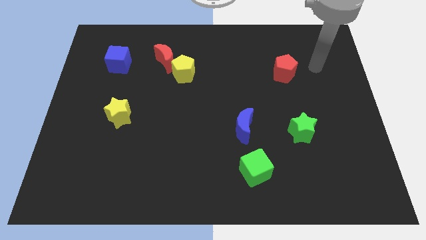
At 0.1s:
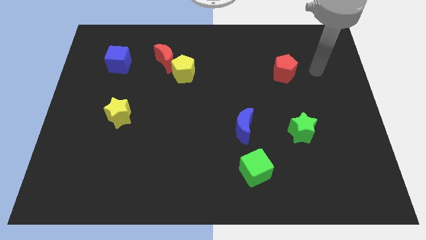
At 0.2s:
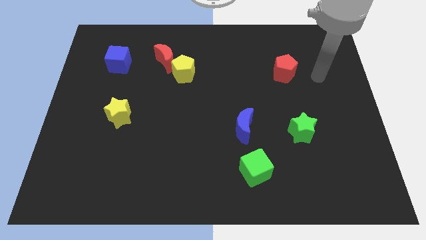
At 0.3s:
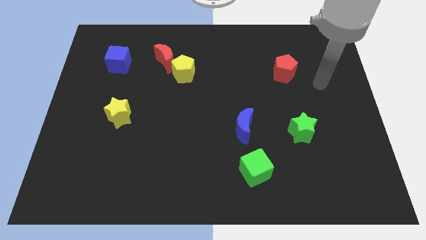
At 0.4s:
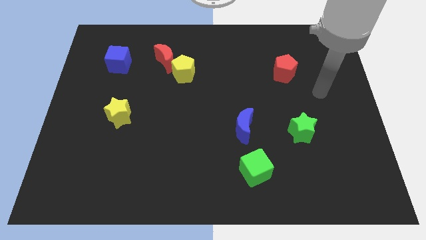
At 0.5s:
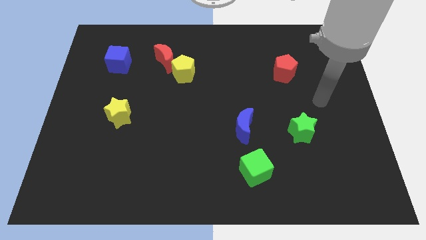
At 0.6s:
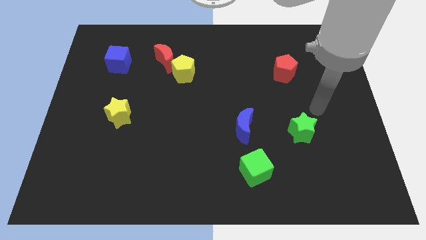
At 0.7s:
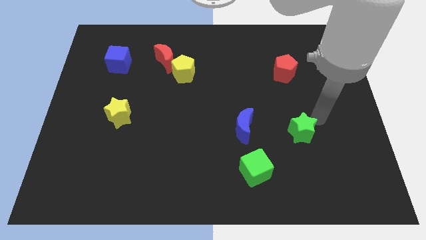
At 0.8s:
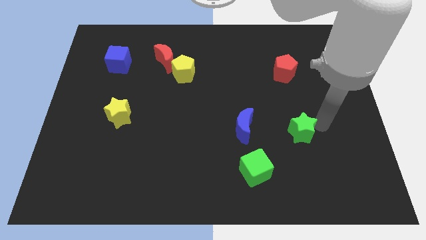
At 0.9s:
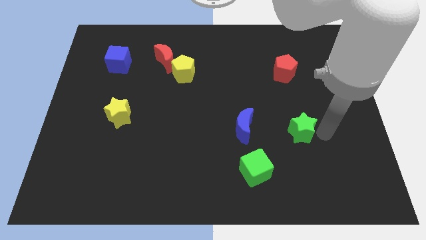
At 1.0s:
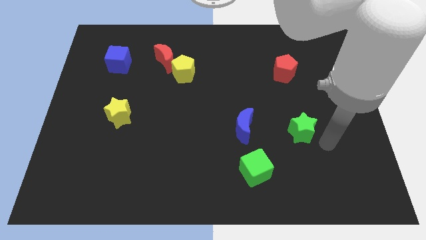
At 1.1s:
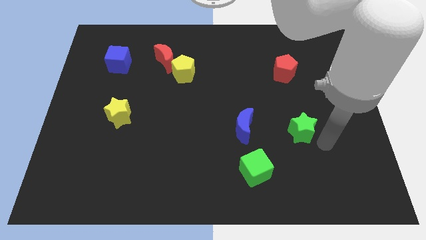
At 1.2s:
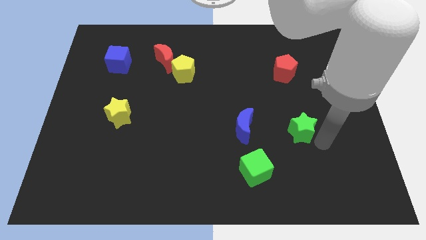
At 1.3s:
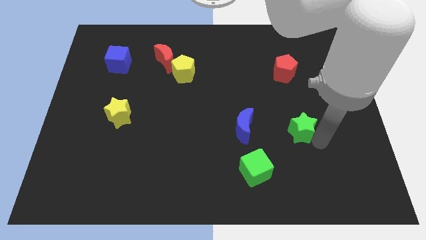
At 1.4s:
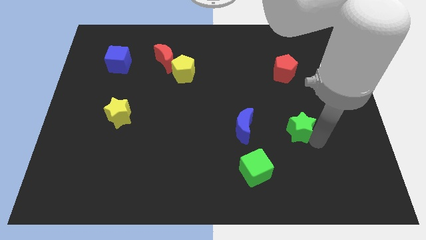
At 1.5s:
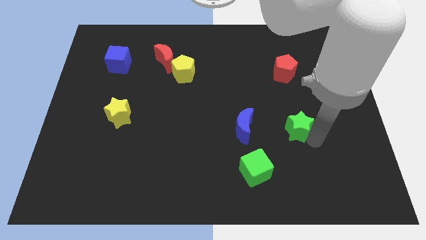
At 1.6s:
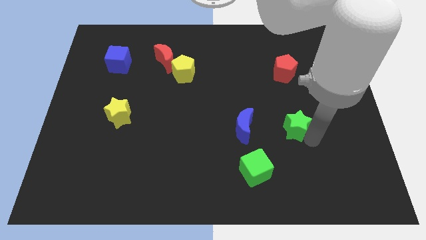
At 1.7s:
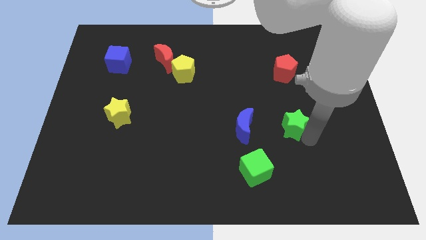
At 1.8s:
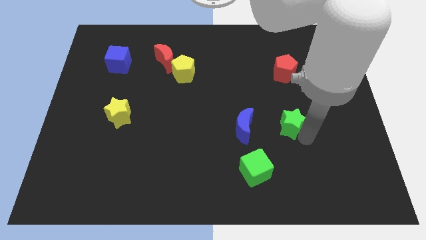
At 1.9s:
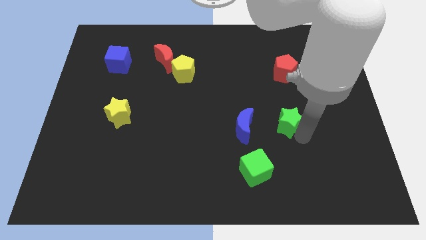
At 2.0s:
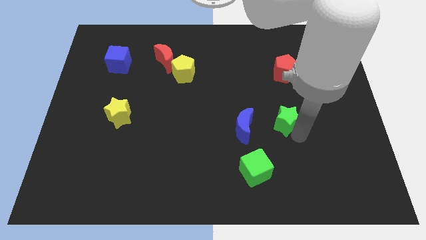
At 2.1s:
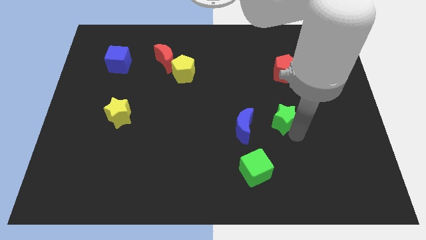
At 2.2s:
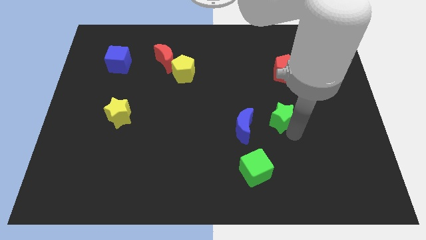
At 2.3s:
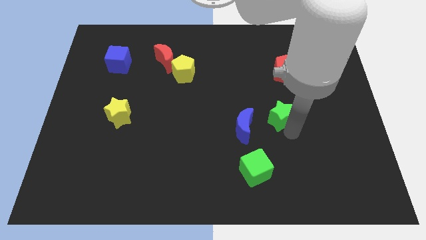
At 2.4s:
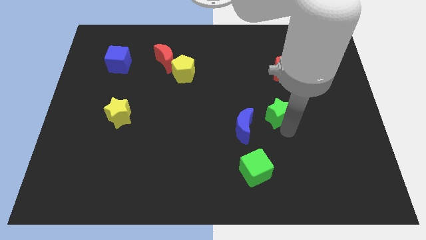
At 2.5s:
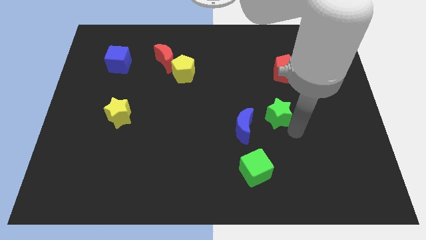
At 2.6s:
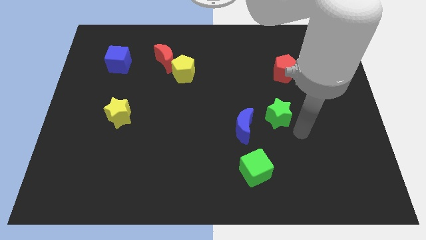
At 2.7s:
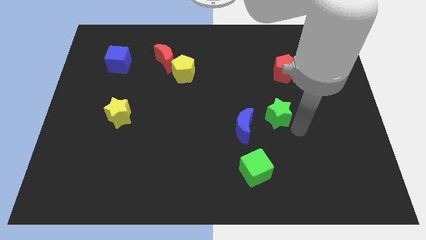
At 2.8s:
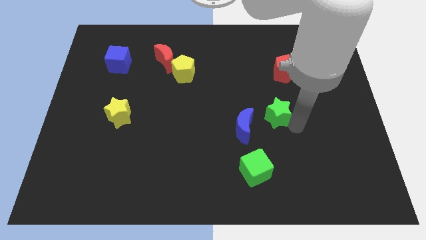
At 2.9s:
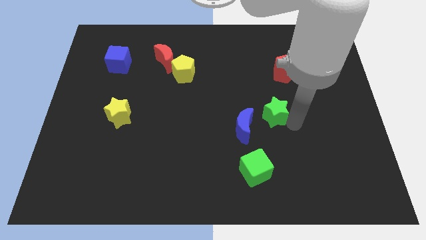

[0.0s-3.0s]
push the green star somewhat upwards and left

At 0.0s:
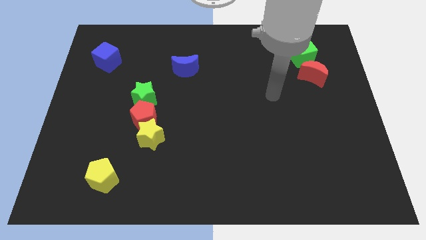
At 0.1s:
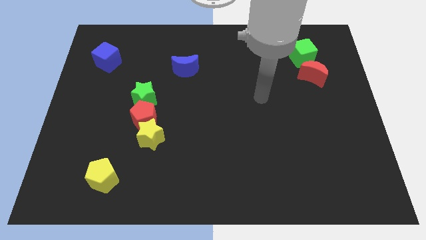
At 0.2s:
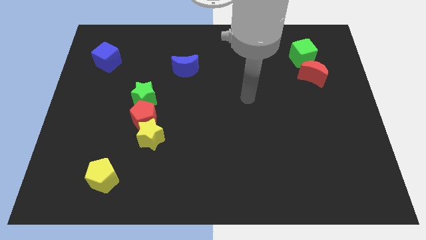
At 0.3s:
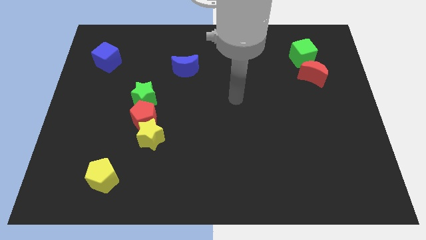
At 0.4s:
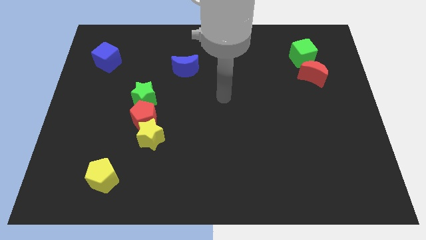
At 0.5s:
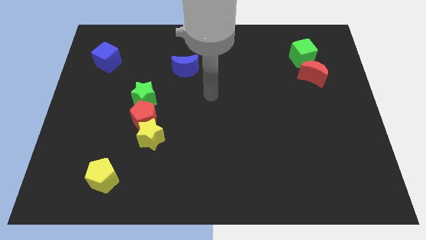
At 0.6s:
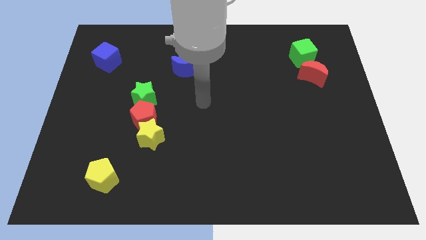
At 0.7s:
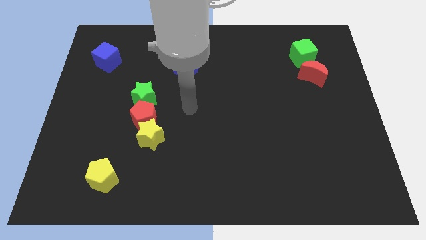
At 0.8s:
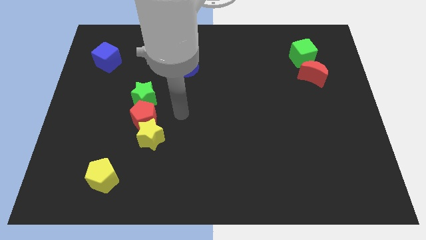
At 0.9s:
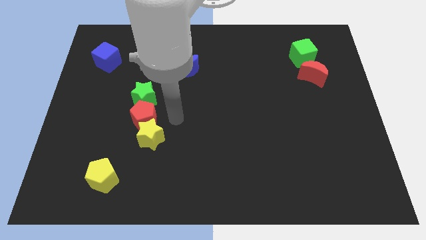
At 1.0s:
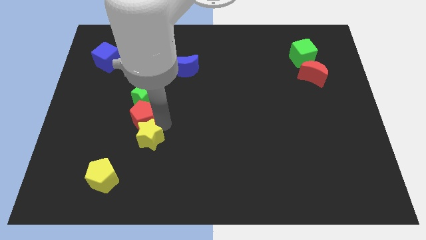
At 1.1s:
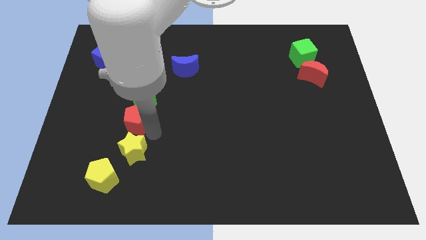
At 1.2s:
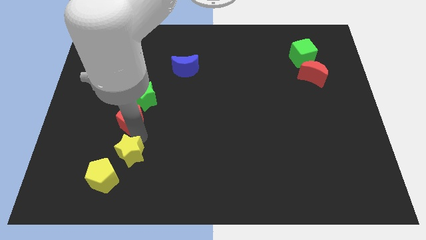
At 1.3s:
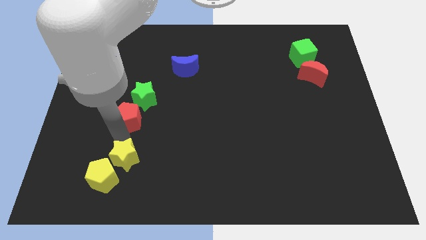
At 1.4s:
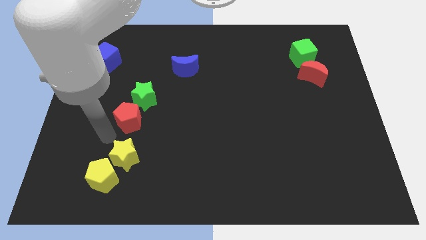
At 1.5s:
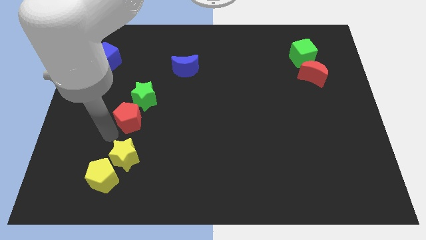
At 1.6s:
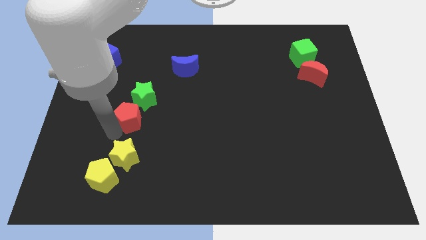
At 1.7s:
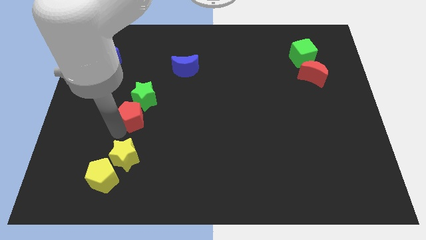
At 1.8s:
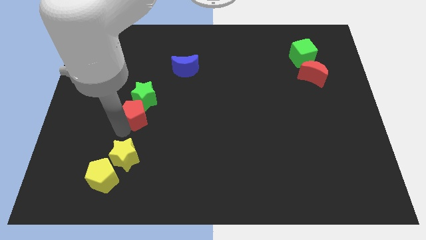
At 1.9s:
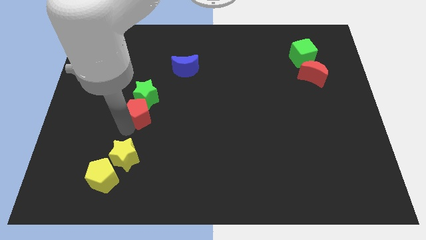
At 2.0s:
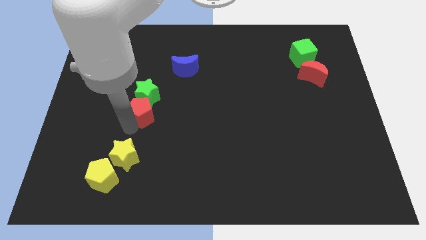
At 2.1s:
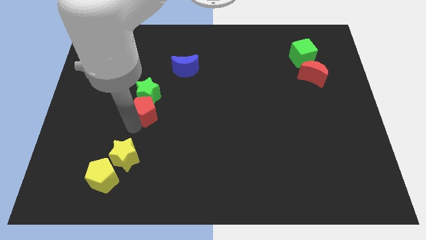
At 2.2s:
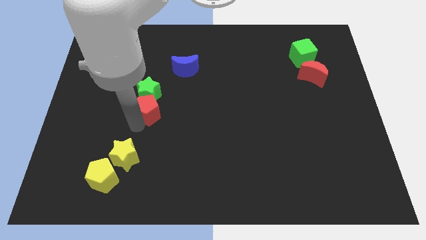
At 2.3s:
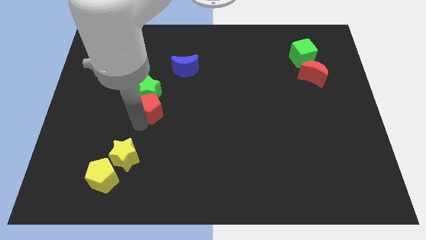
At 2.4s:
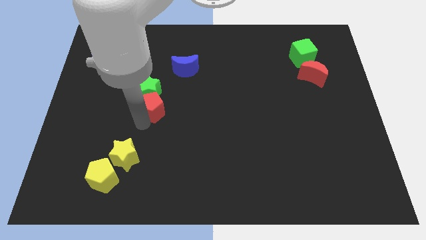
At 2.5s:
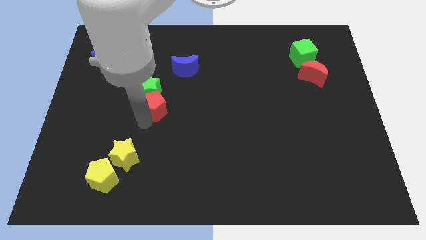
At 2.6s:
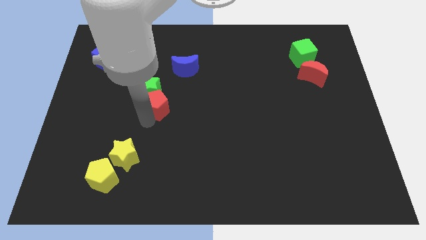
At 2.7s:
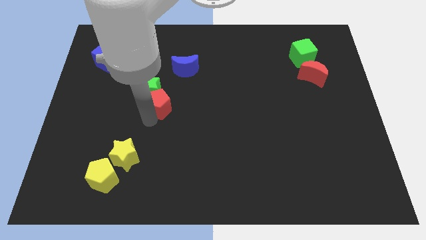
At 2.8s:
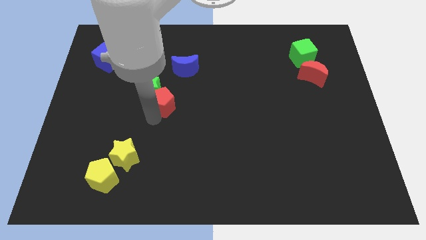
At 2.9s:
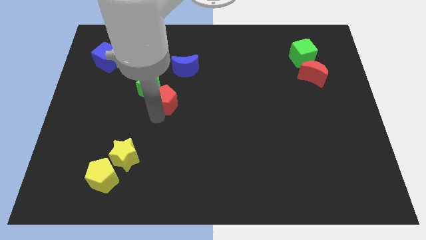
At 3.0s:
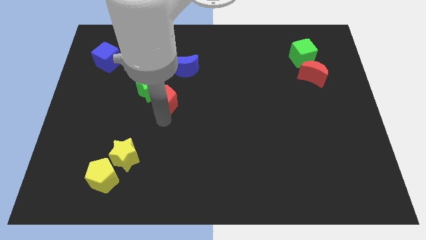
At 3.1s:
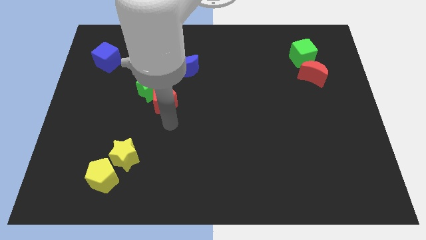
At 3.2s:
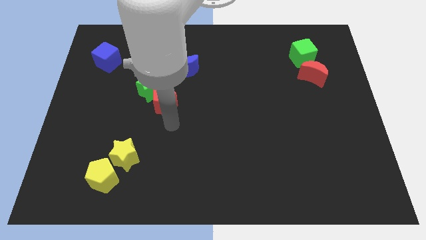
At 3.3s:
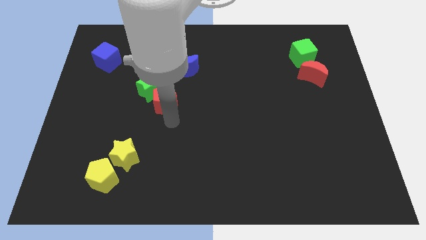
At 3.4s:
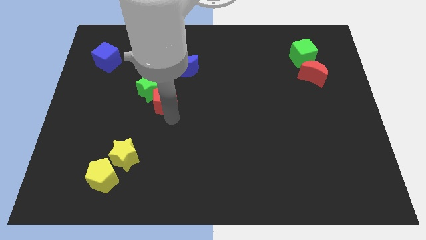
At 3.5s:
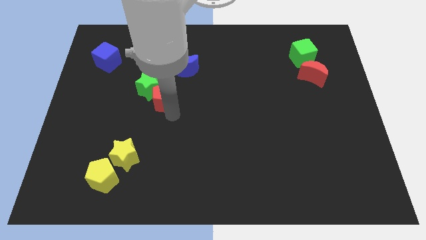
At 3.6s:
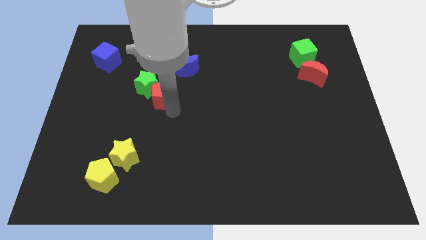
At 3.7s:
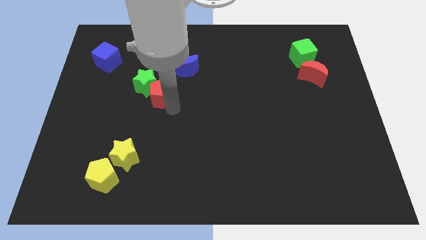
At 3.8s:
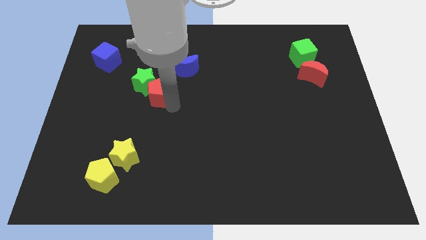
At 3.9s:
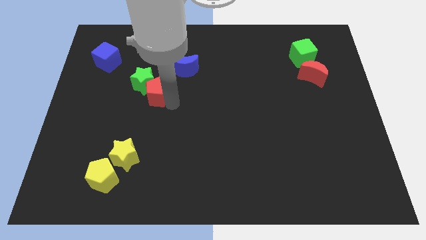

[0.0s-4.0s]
move the red pentagon upwards a bit

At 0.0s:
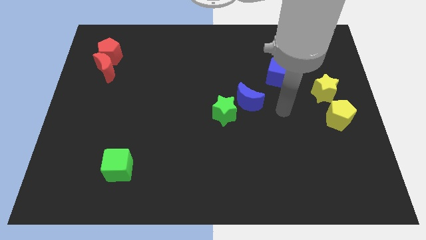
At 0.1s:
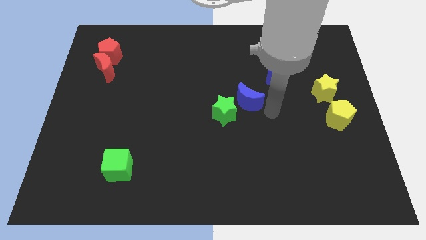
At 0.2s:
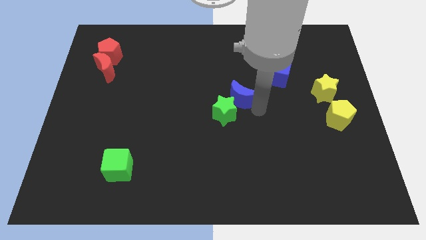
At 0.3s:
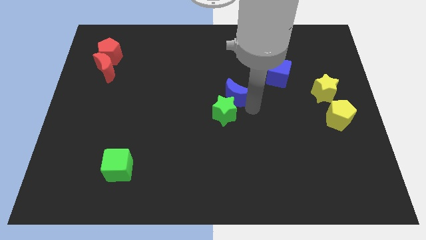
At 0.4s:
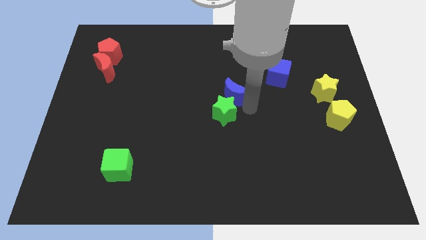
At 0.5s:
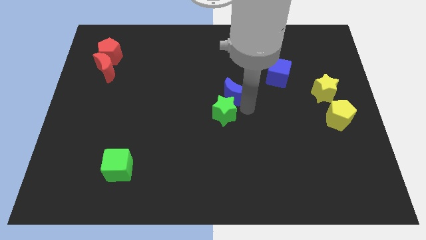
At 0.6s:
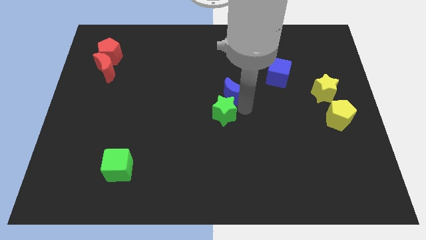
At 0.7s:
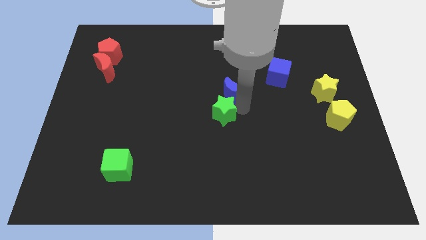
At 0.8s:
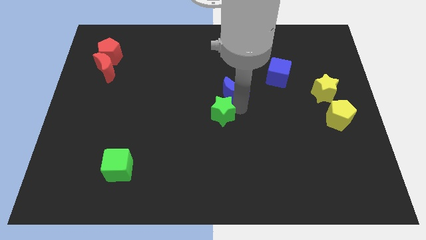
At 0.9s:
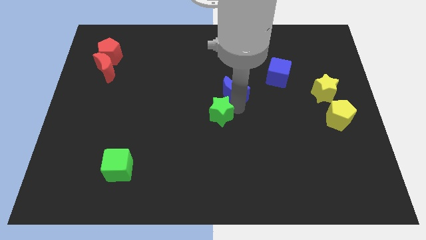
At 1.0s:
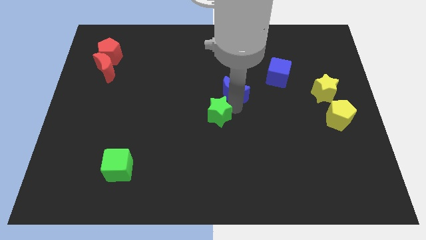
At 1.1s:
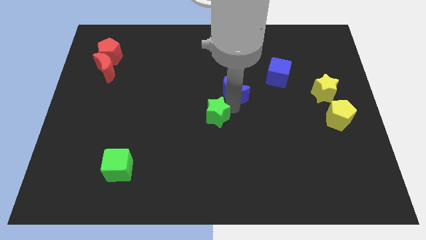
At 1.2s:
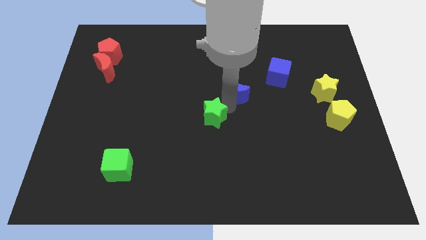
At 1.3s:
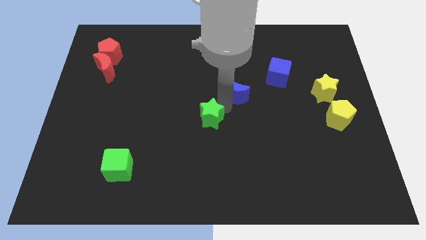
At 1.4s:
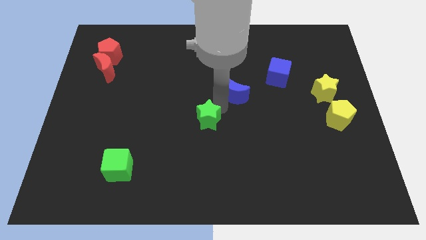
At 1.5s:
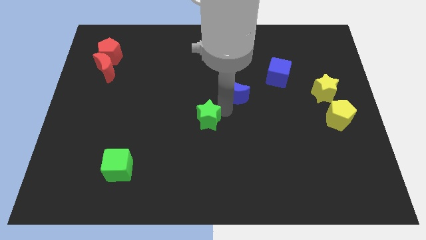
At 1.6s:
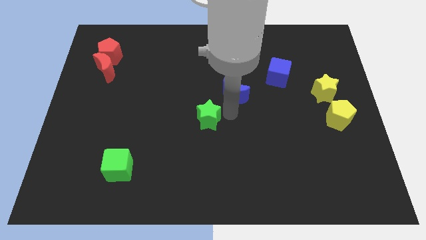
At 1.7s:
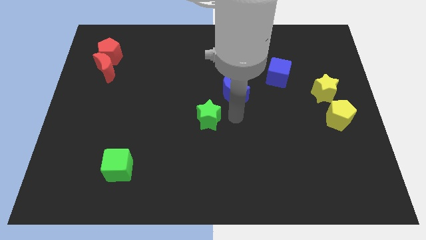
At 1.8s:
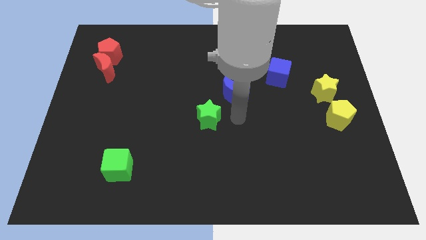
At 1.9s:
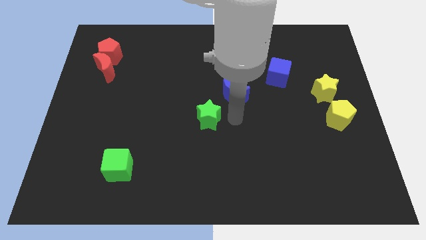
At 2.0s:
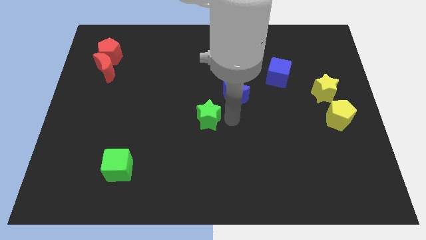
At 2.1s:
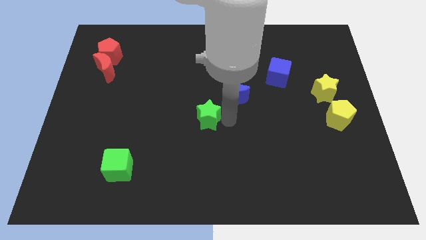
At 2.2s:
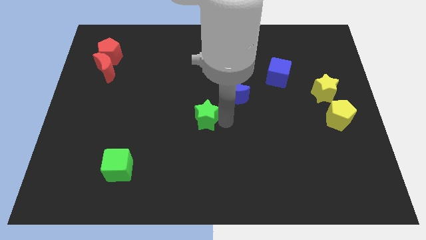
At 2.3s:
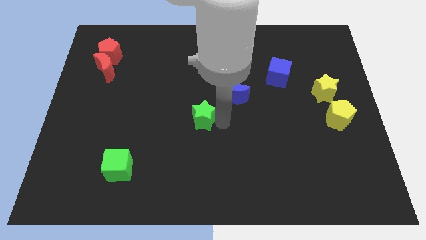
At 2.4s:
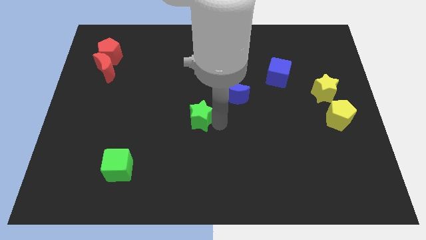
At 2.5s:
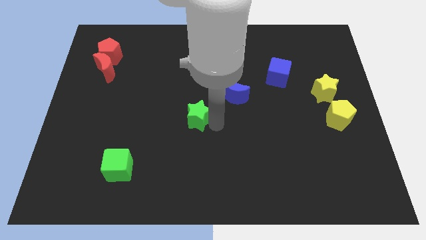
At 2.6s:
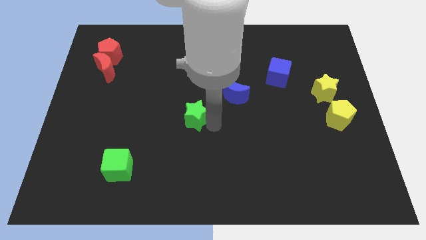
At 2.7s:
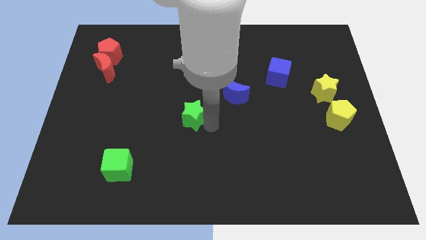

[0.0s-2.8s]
slightly move the green star left
